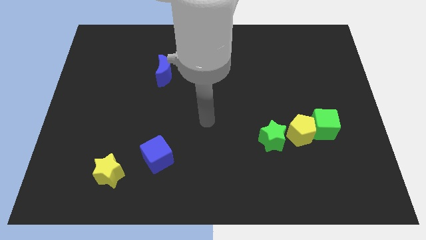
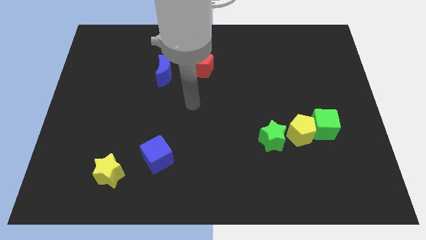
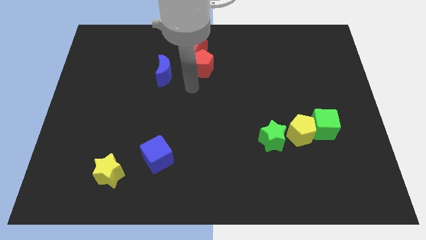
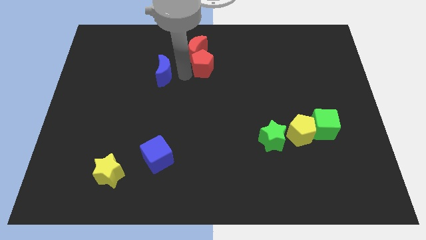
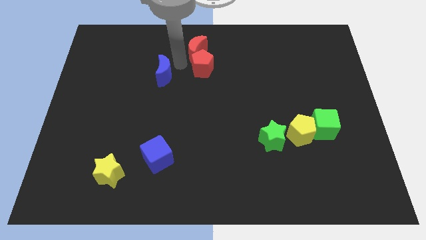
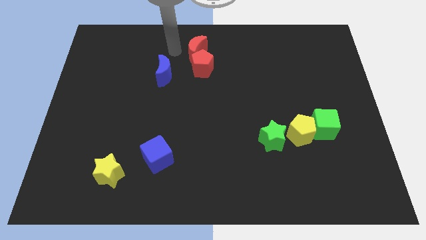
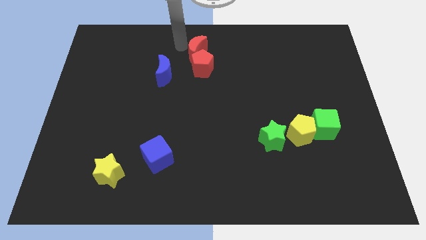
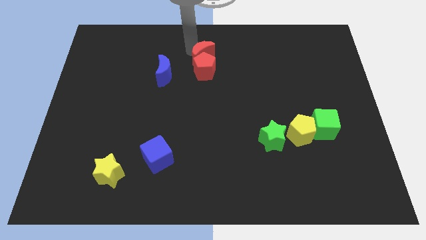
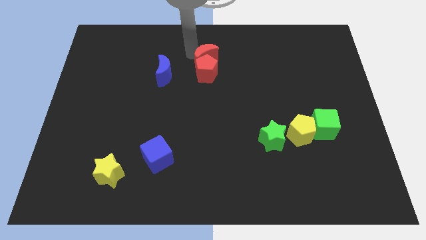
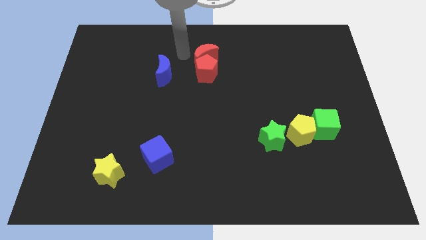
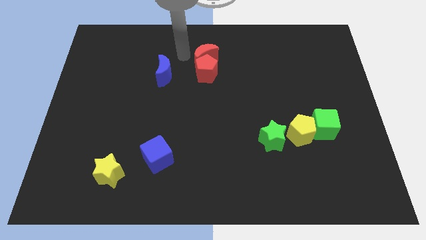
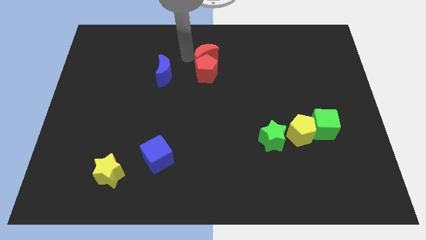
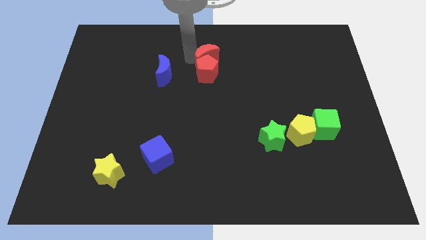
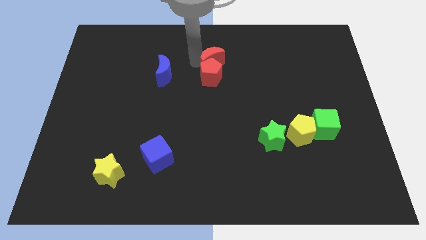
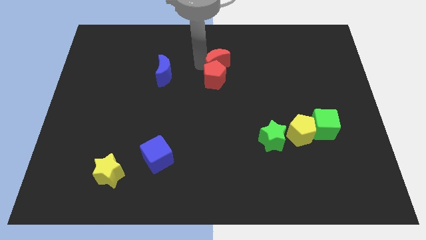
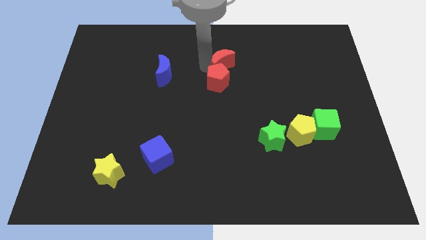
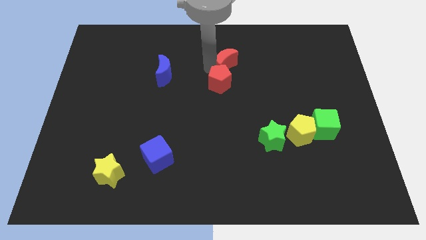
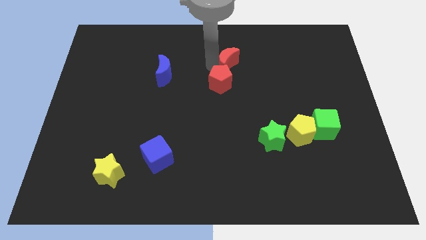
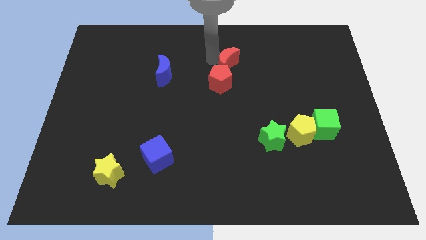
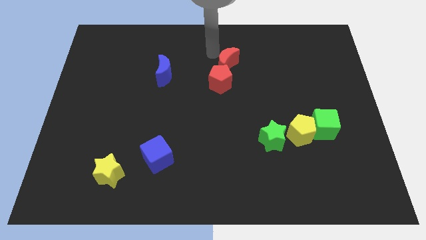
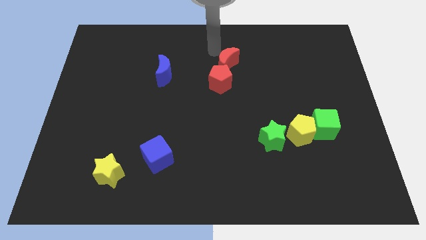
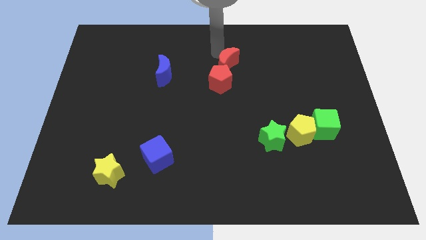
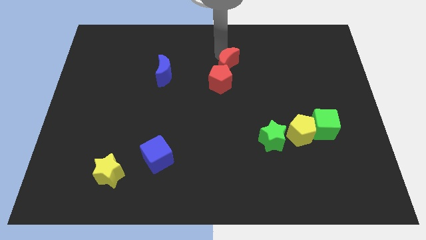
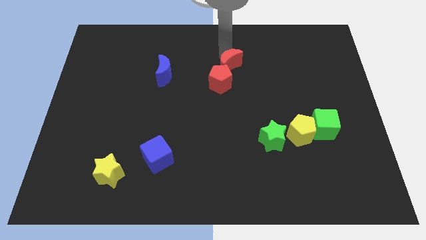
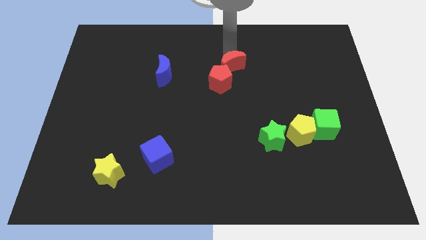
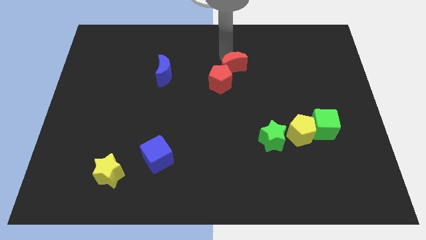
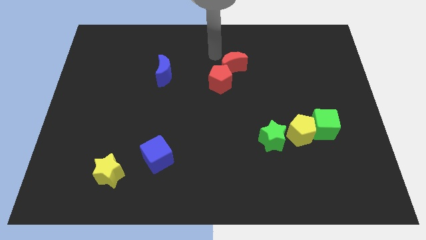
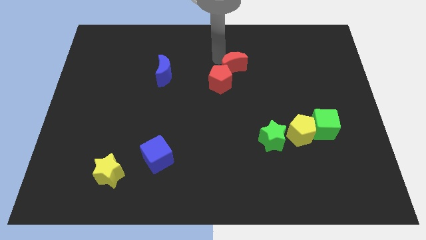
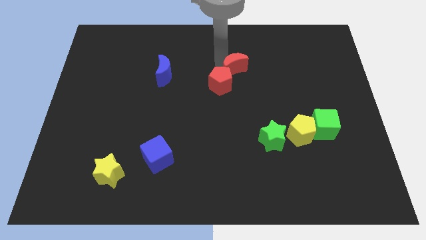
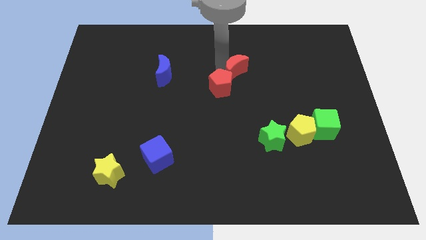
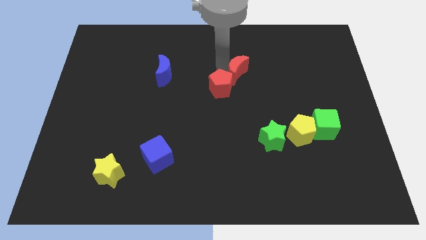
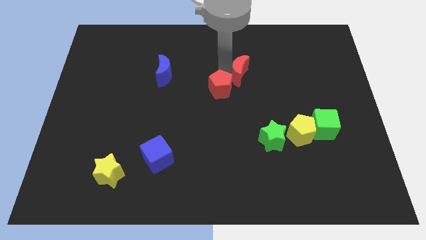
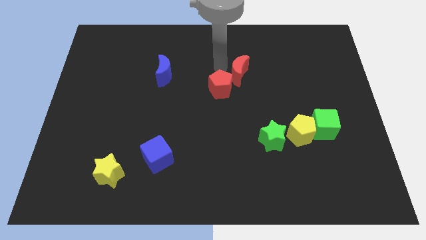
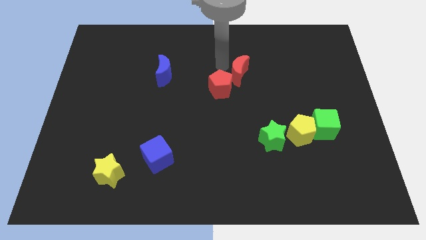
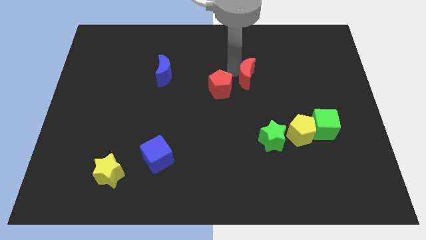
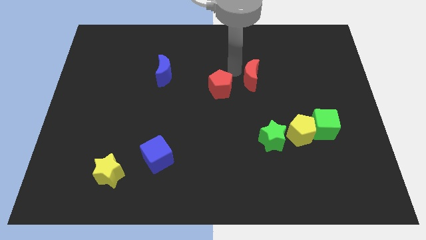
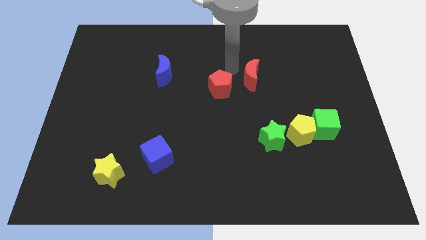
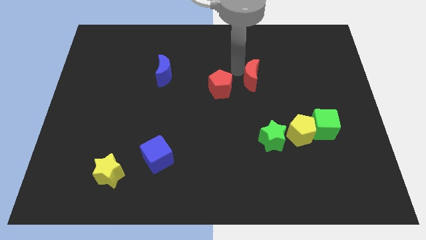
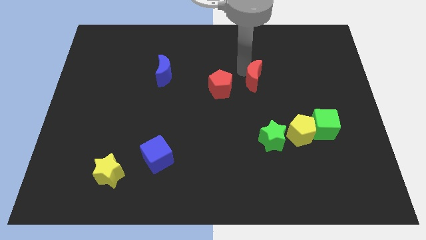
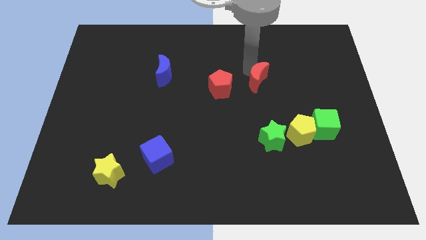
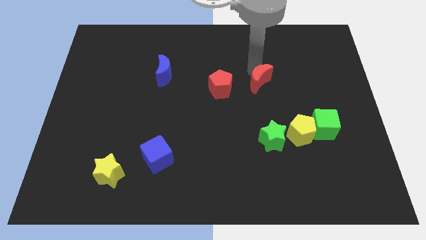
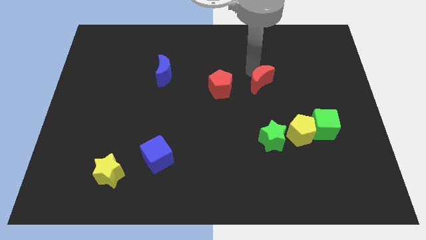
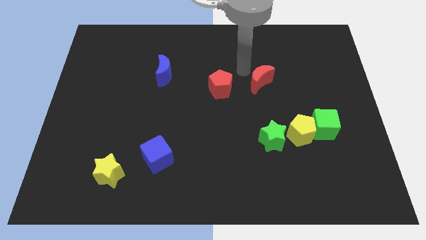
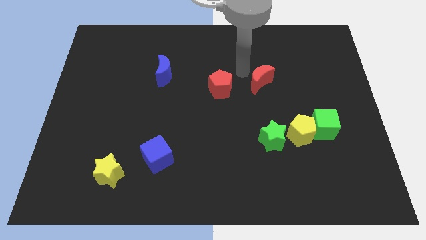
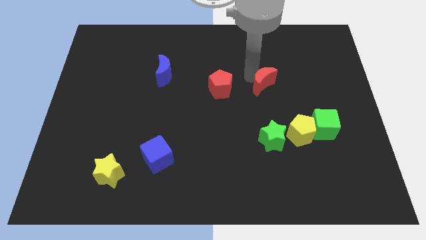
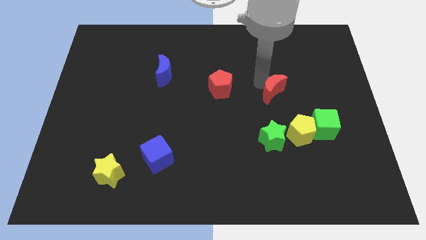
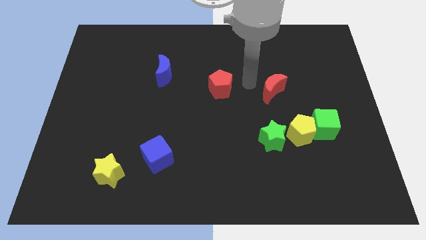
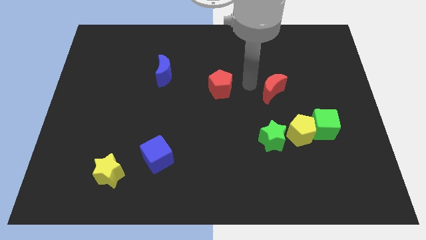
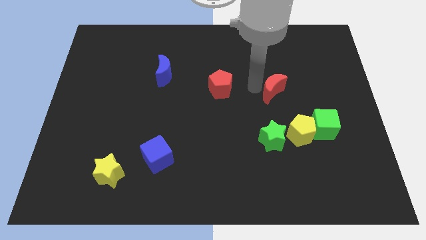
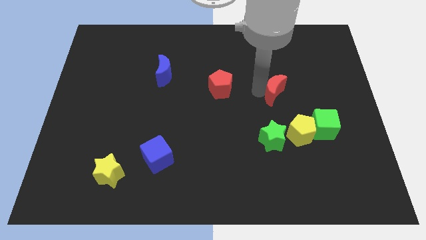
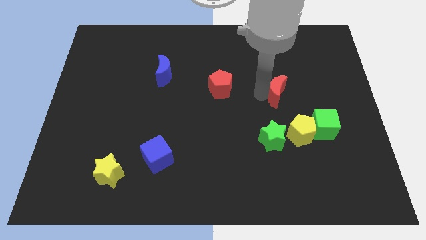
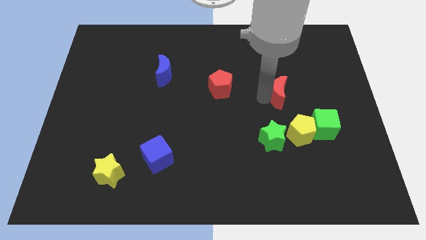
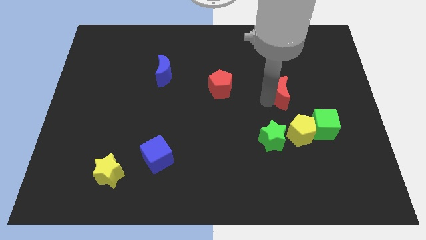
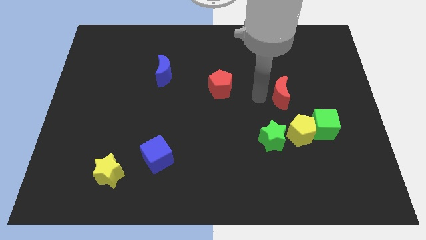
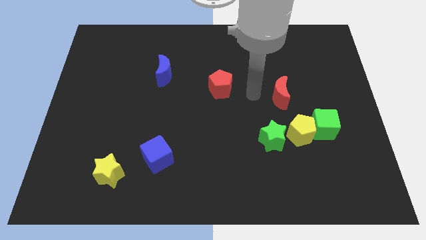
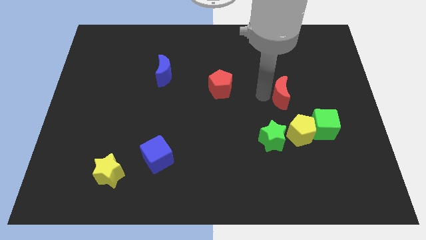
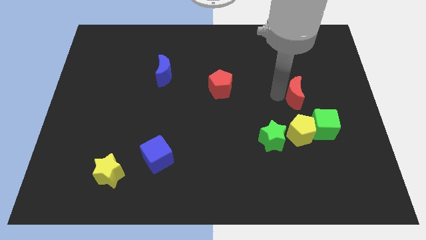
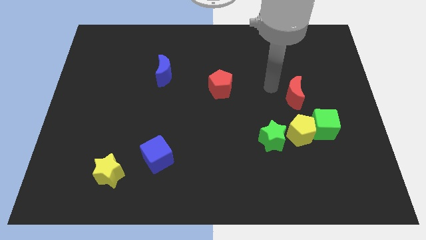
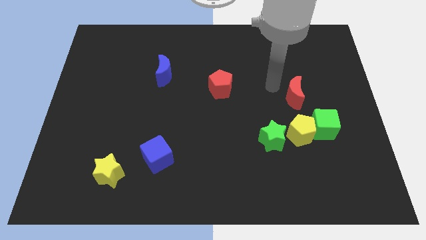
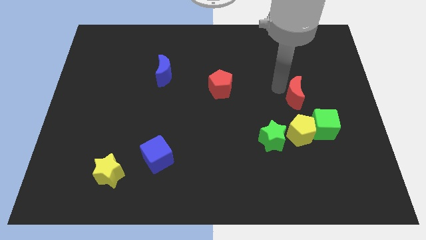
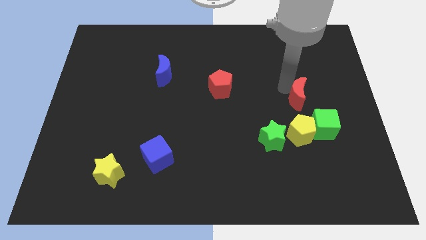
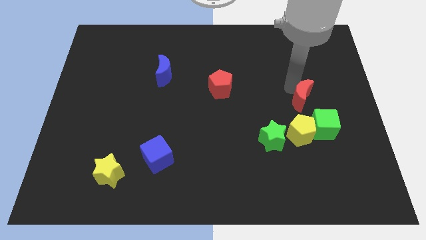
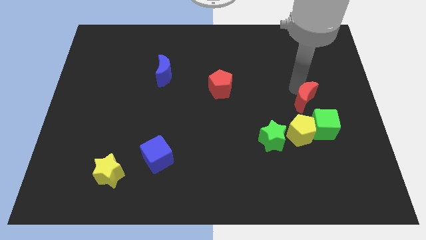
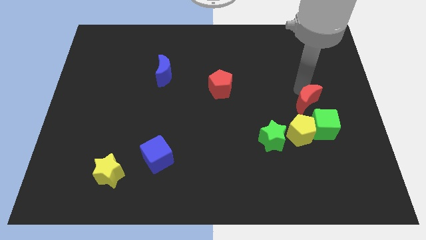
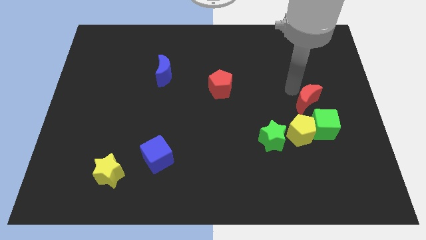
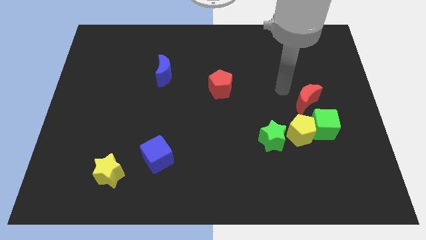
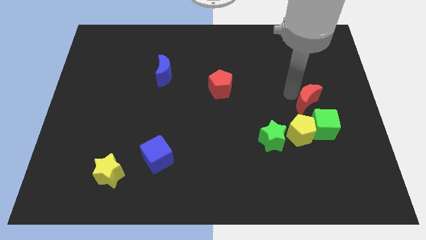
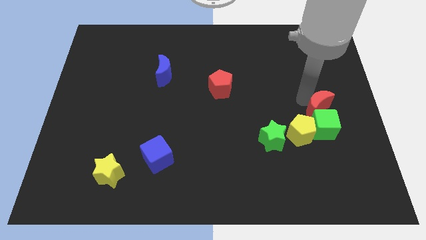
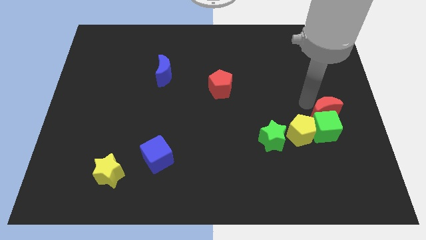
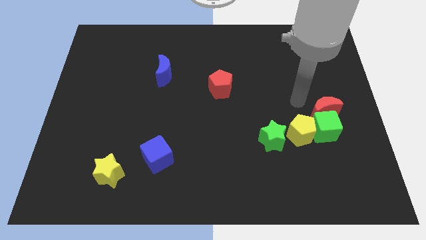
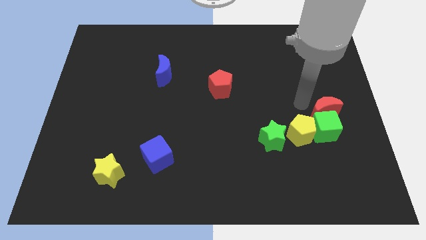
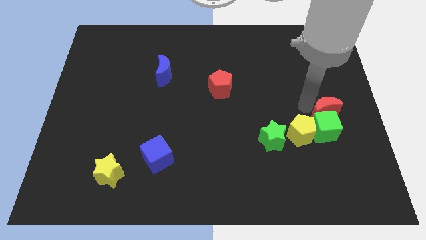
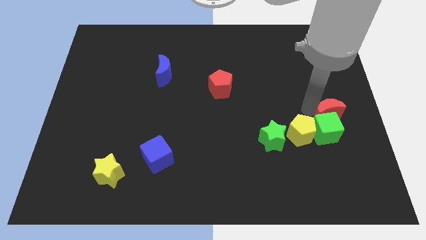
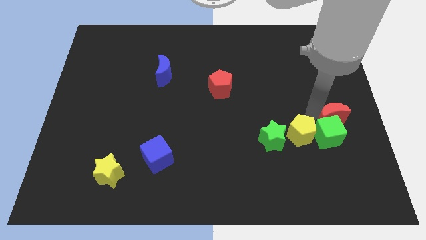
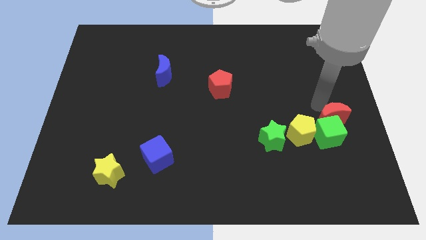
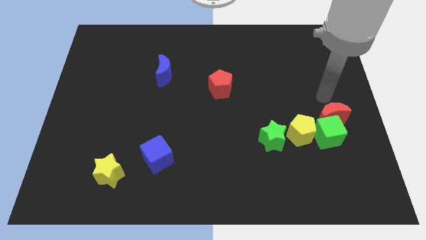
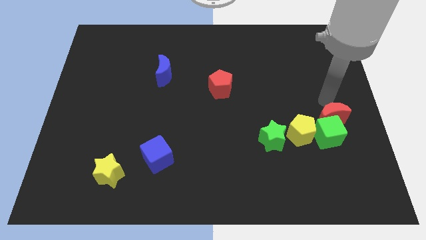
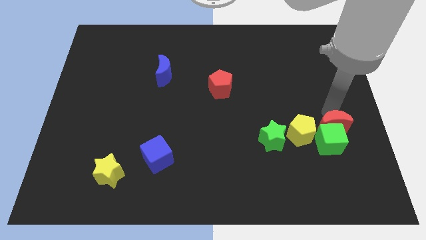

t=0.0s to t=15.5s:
put the red moon right of the green star
